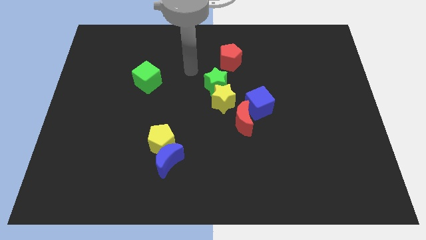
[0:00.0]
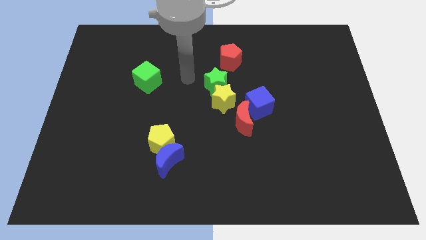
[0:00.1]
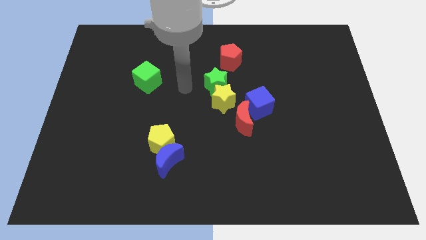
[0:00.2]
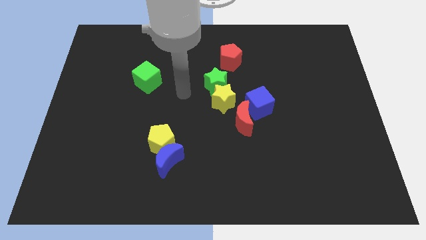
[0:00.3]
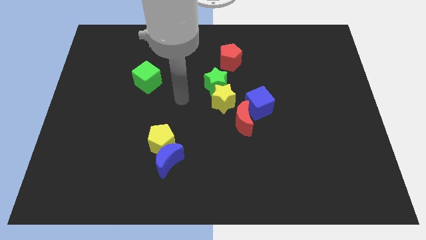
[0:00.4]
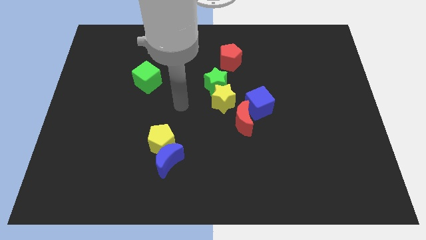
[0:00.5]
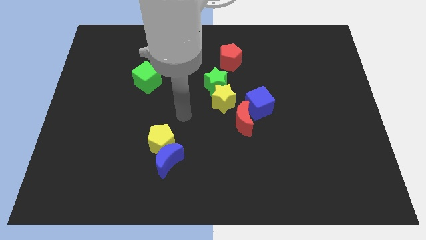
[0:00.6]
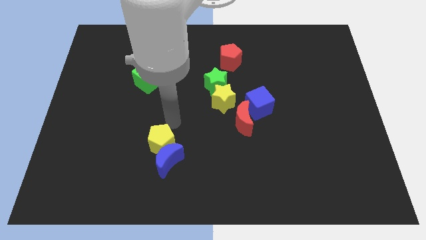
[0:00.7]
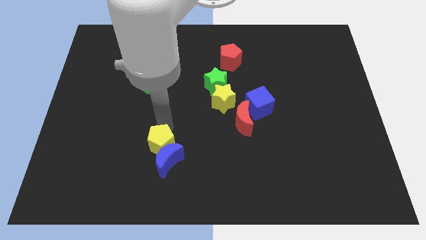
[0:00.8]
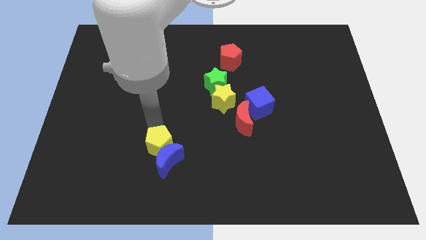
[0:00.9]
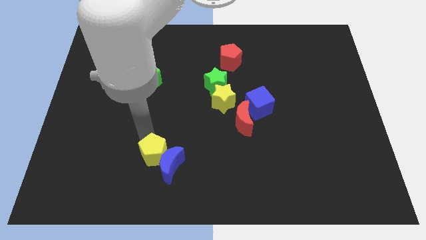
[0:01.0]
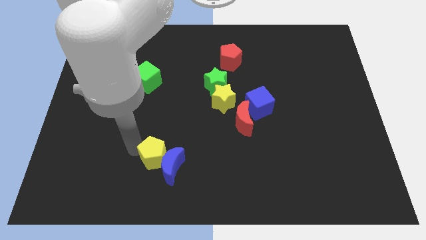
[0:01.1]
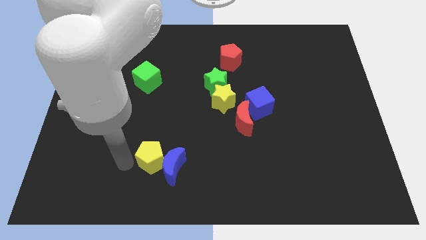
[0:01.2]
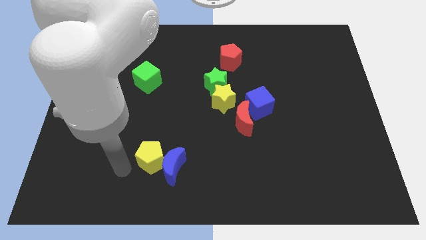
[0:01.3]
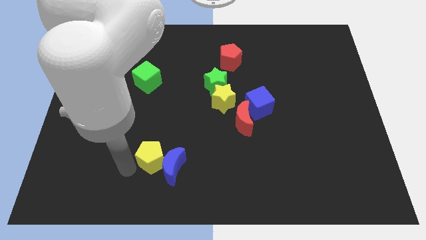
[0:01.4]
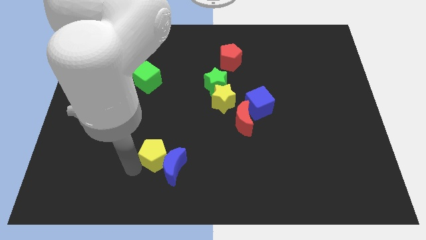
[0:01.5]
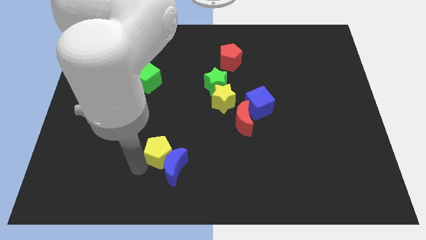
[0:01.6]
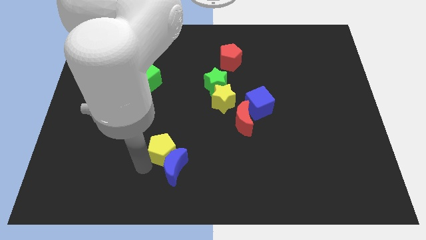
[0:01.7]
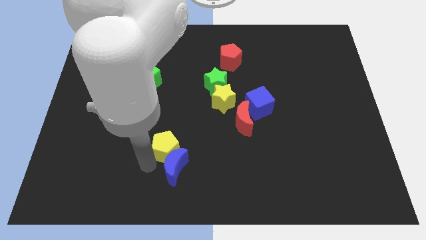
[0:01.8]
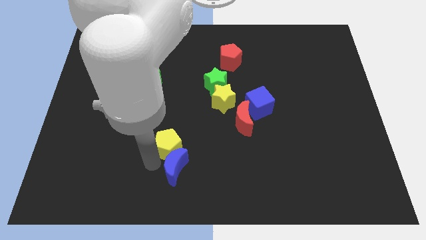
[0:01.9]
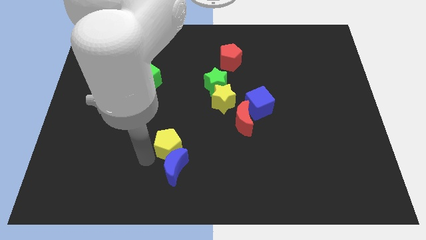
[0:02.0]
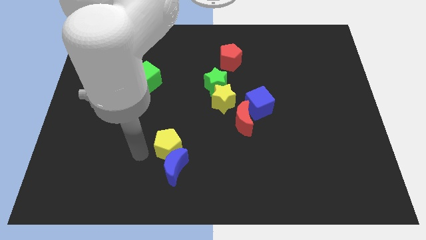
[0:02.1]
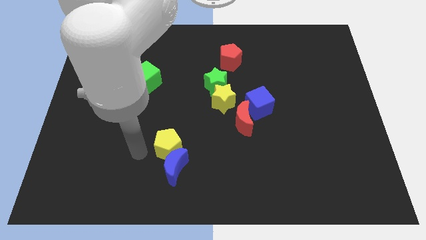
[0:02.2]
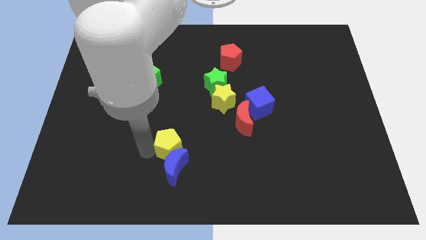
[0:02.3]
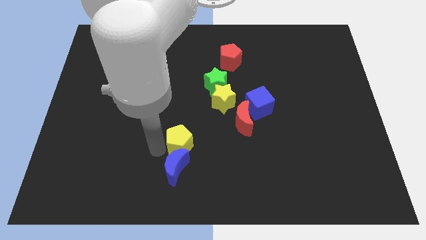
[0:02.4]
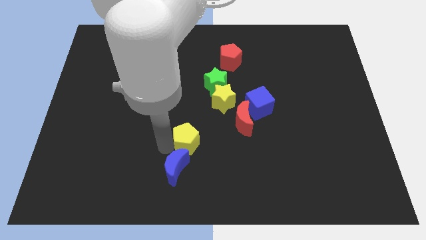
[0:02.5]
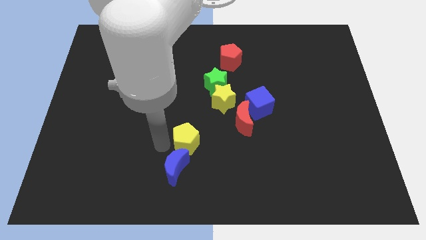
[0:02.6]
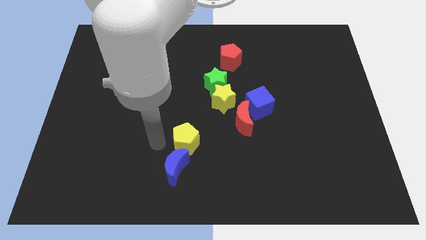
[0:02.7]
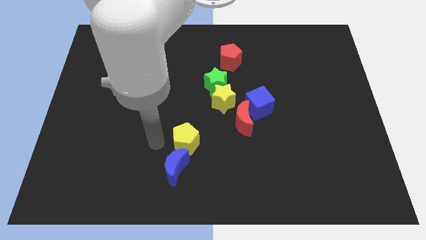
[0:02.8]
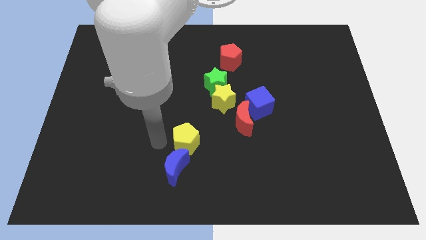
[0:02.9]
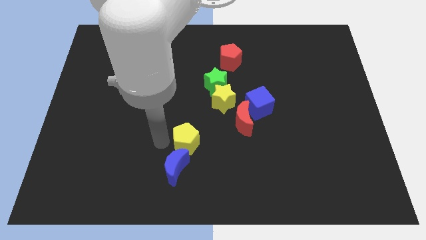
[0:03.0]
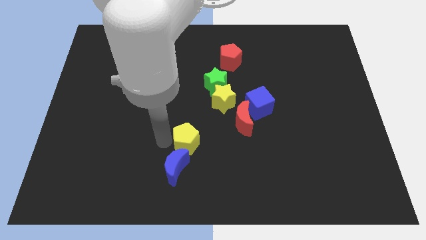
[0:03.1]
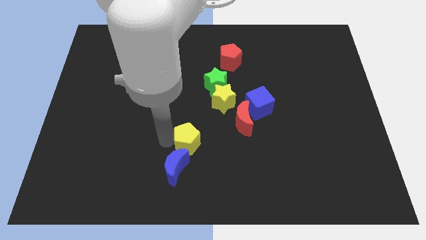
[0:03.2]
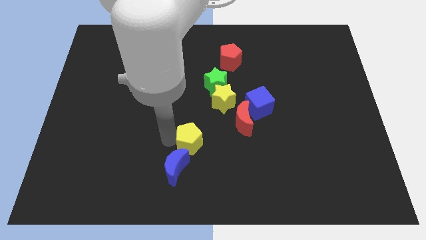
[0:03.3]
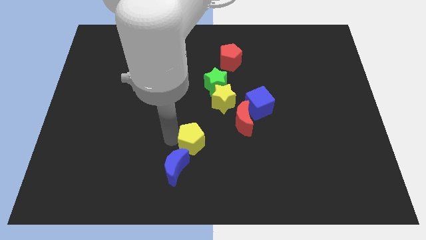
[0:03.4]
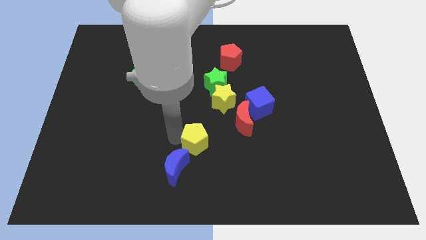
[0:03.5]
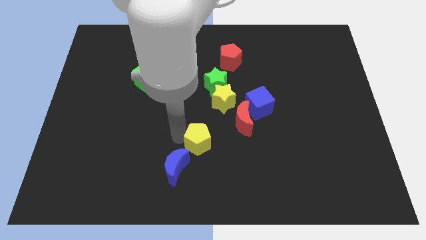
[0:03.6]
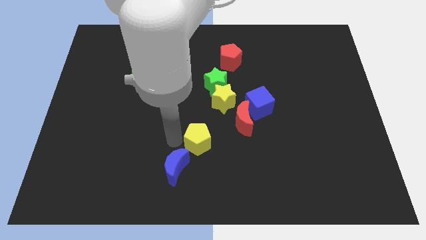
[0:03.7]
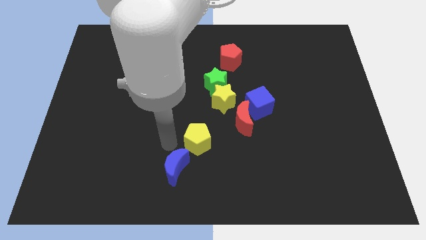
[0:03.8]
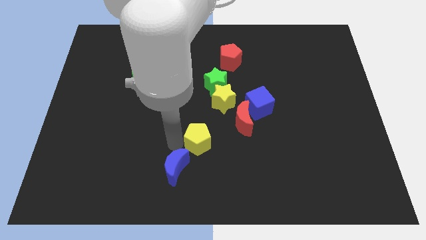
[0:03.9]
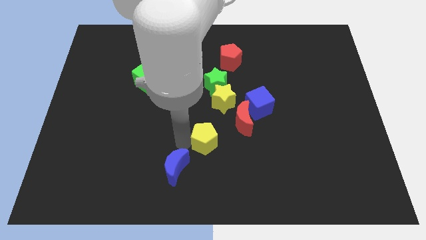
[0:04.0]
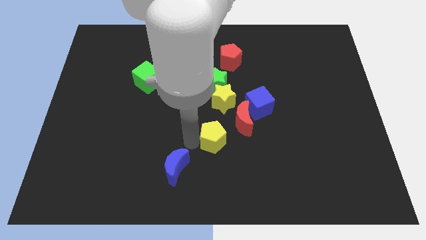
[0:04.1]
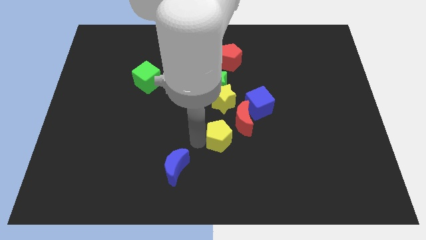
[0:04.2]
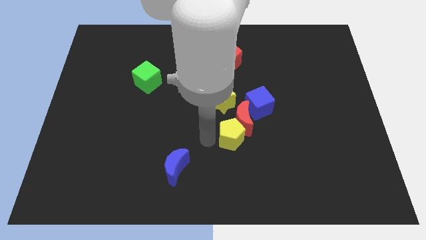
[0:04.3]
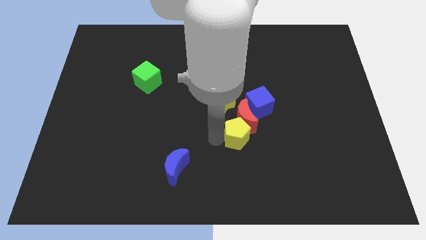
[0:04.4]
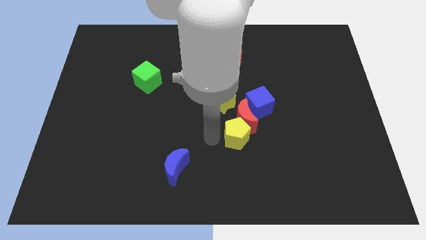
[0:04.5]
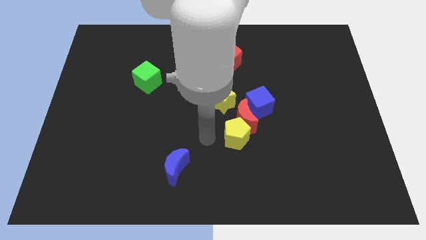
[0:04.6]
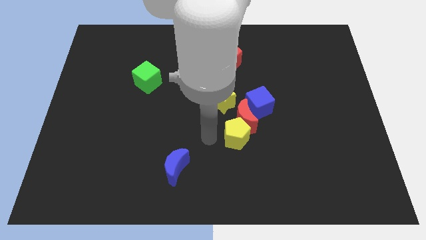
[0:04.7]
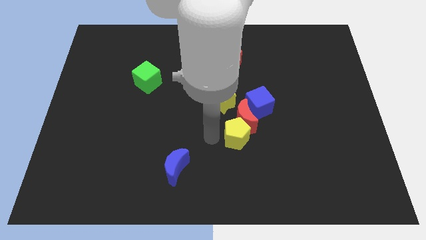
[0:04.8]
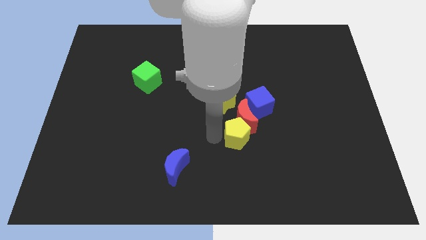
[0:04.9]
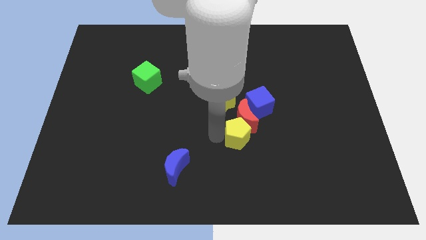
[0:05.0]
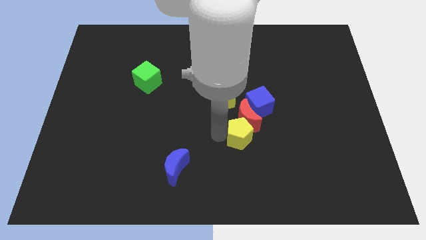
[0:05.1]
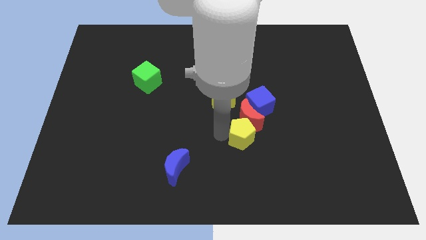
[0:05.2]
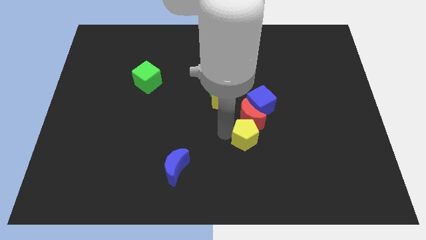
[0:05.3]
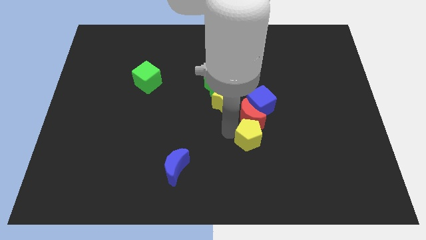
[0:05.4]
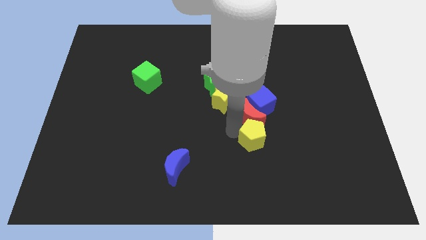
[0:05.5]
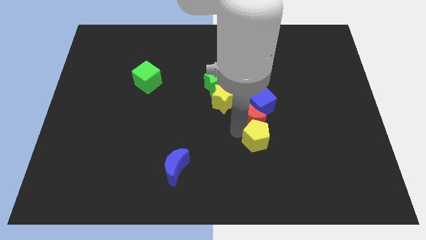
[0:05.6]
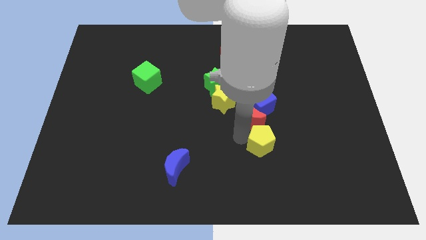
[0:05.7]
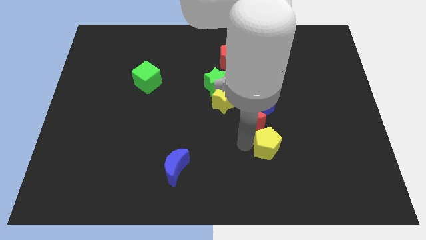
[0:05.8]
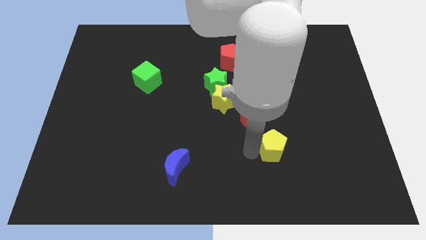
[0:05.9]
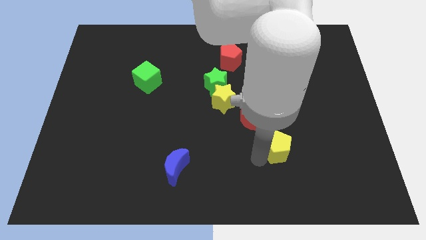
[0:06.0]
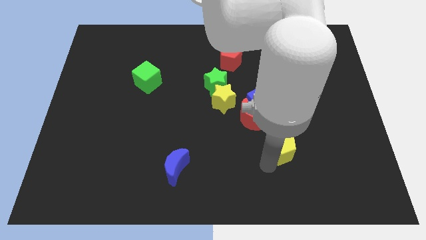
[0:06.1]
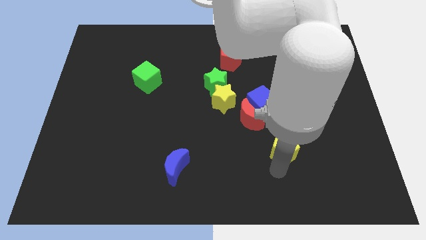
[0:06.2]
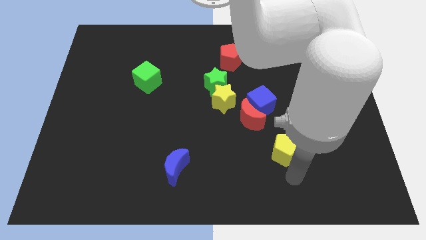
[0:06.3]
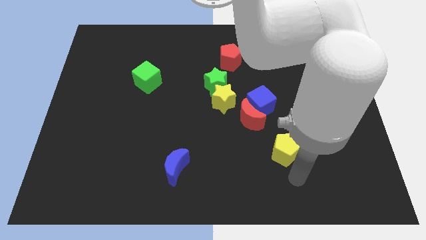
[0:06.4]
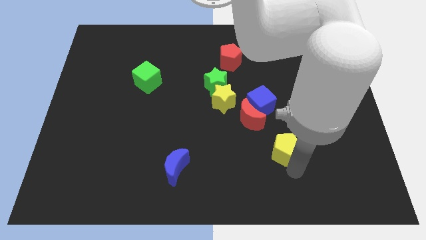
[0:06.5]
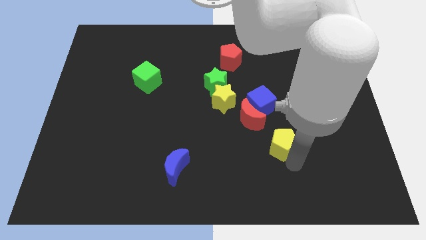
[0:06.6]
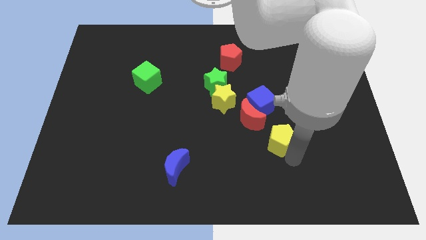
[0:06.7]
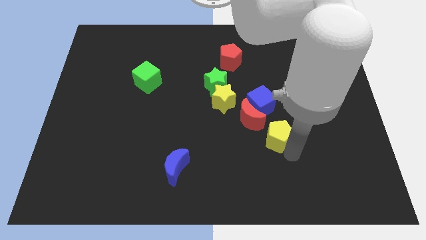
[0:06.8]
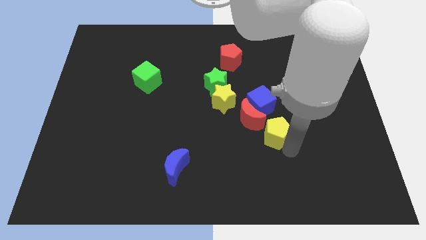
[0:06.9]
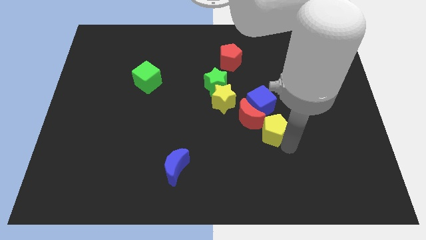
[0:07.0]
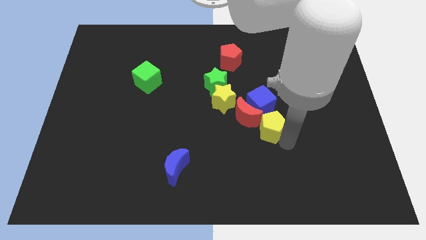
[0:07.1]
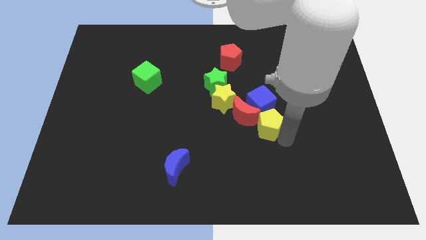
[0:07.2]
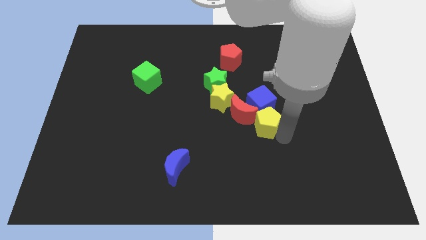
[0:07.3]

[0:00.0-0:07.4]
put the yellow pentagon close to the blue cube
